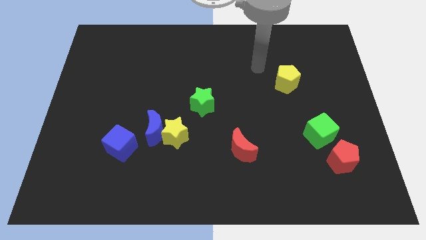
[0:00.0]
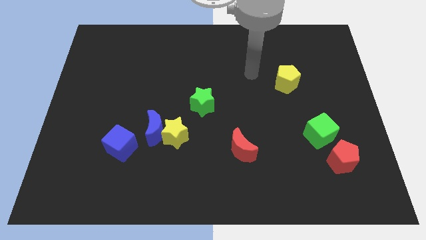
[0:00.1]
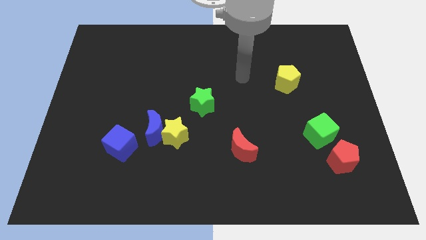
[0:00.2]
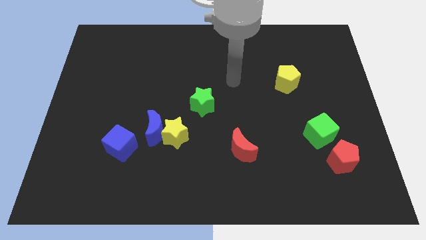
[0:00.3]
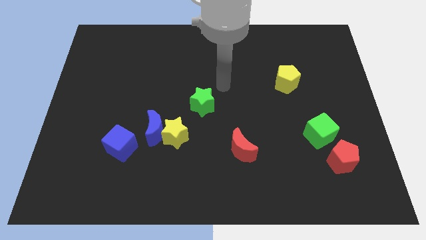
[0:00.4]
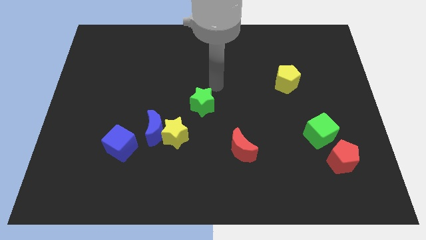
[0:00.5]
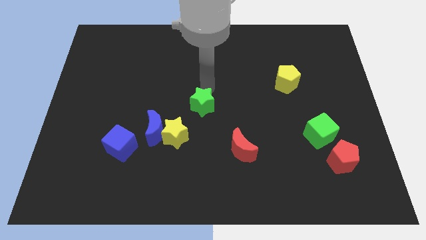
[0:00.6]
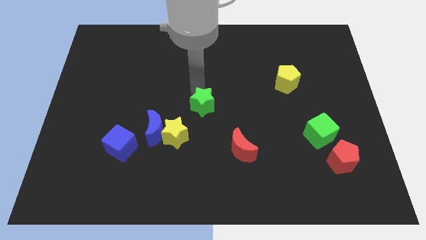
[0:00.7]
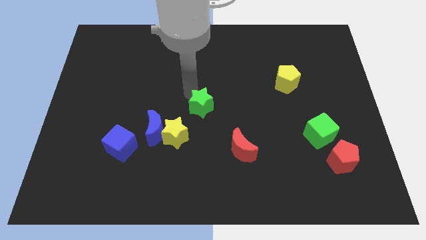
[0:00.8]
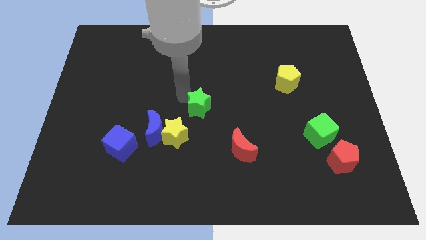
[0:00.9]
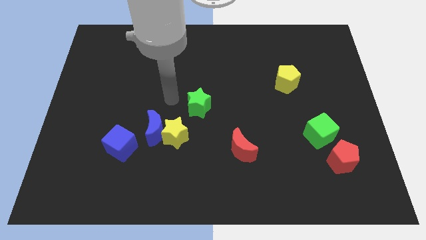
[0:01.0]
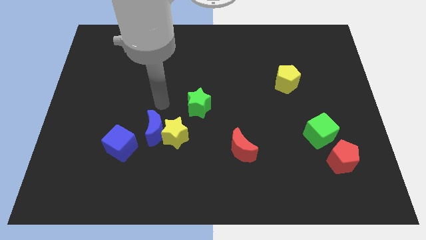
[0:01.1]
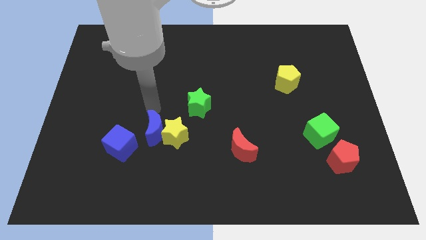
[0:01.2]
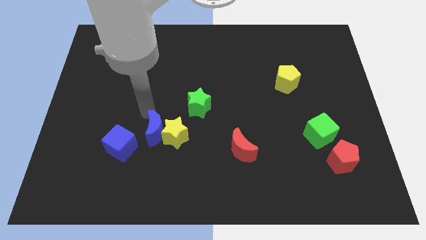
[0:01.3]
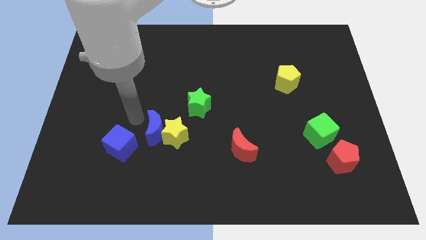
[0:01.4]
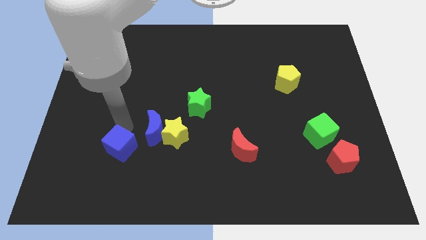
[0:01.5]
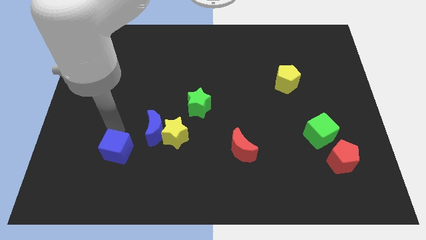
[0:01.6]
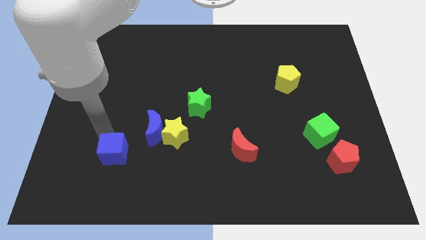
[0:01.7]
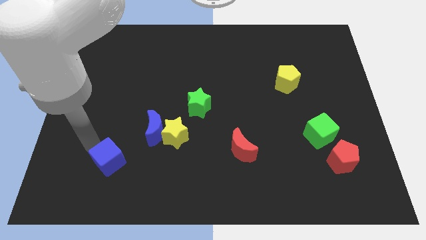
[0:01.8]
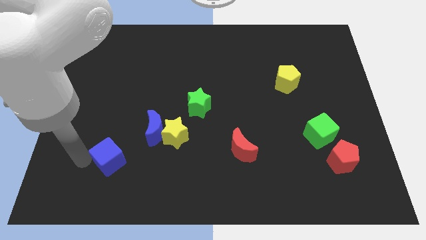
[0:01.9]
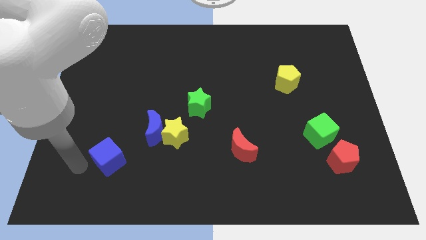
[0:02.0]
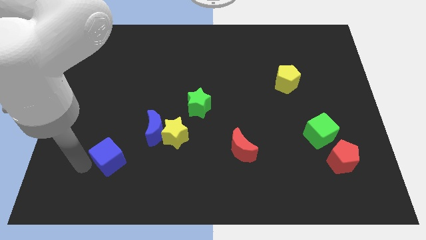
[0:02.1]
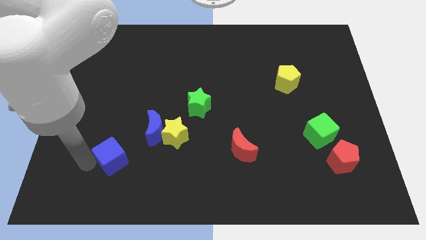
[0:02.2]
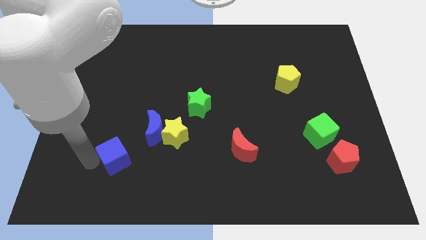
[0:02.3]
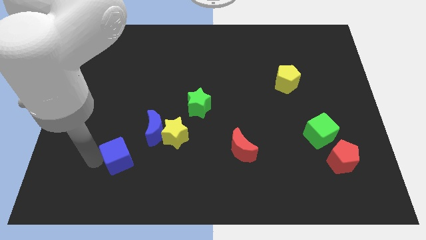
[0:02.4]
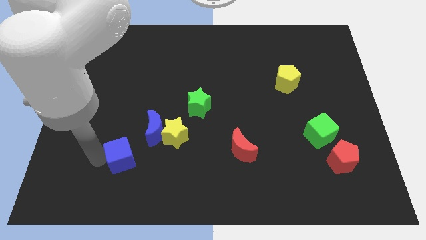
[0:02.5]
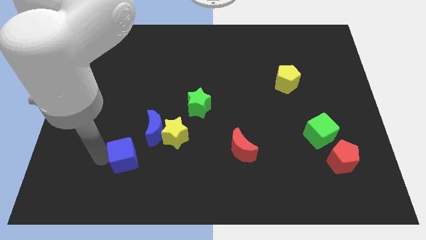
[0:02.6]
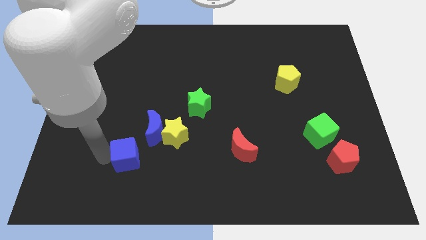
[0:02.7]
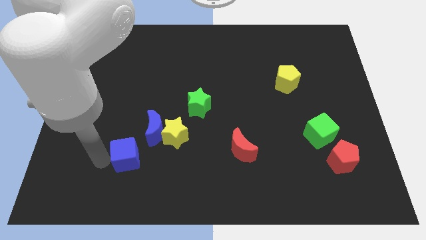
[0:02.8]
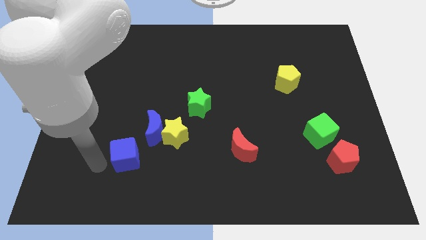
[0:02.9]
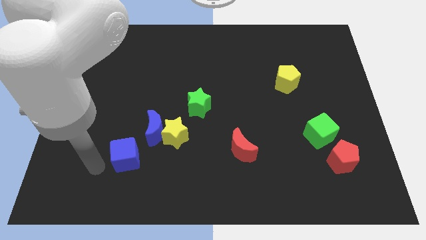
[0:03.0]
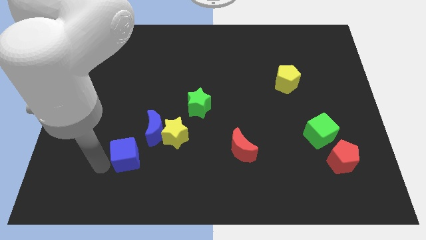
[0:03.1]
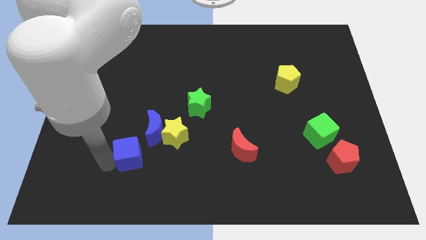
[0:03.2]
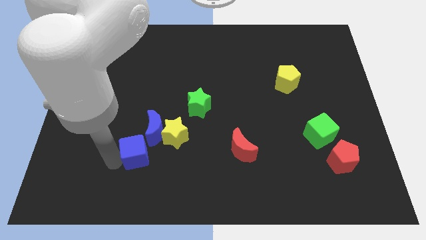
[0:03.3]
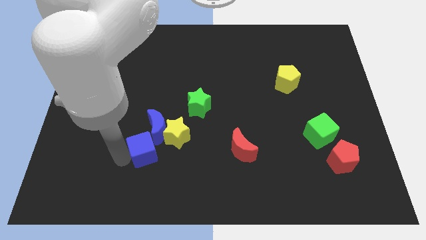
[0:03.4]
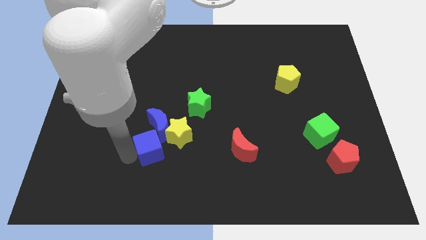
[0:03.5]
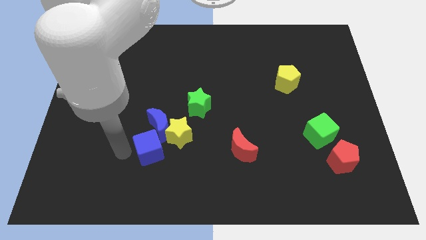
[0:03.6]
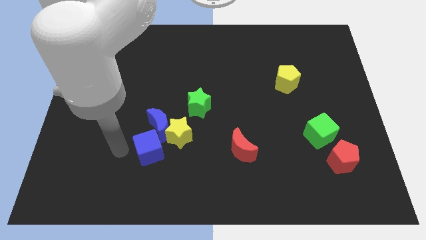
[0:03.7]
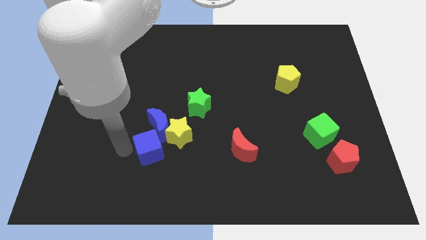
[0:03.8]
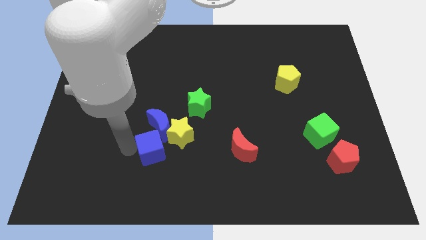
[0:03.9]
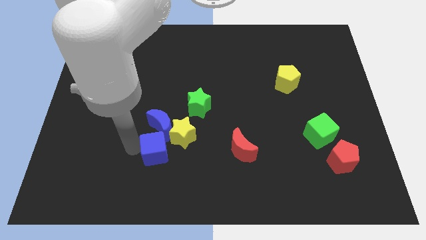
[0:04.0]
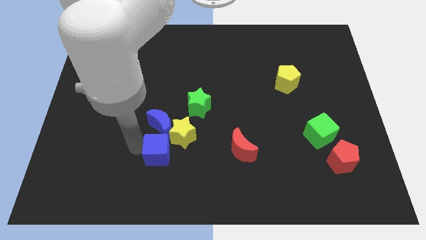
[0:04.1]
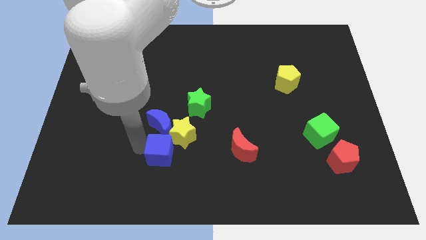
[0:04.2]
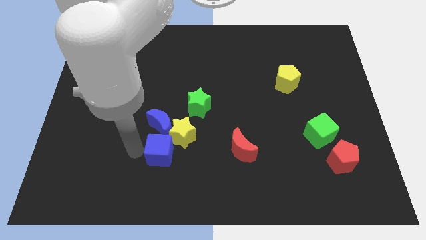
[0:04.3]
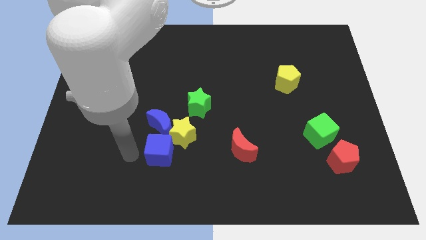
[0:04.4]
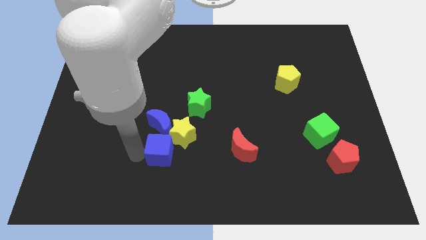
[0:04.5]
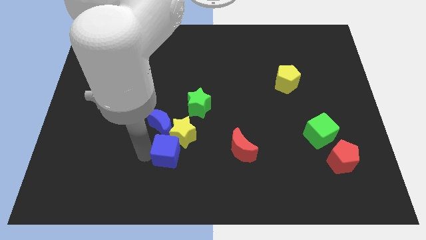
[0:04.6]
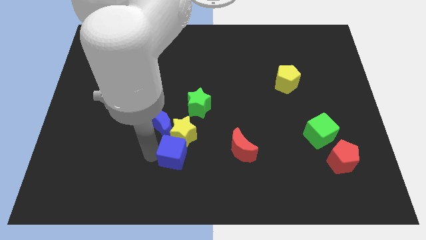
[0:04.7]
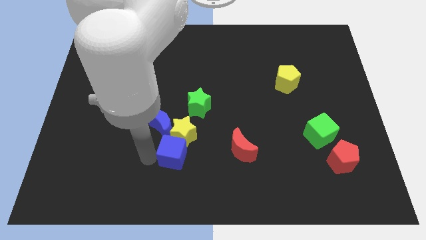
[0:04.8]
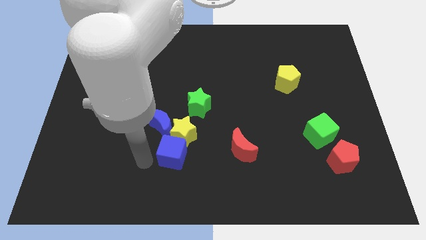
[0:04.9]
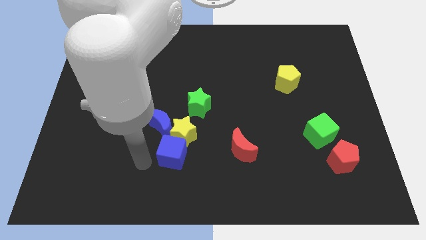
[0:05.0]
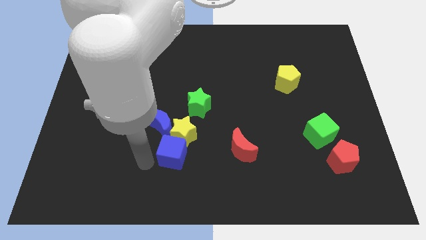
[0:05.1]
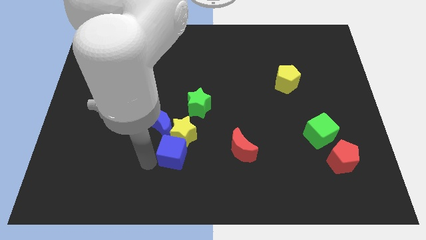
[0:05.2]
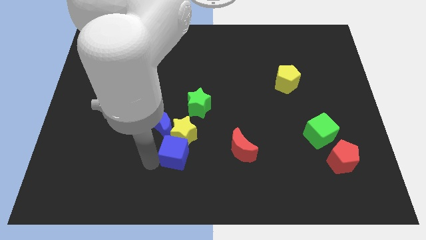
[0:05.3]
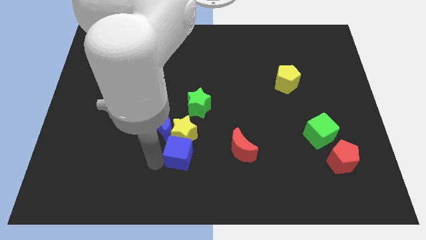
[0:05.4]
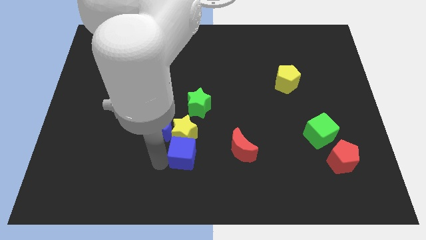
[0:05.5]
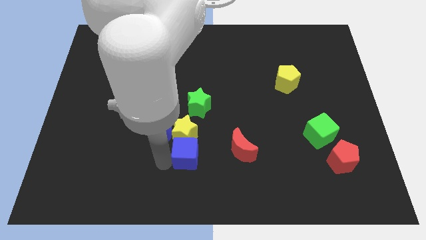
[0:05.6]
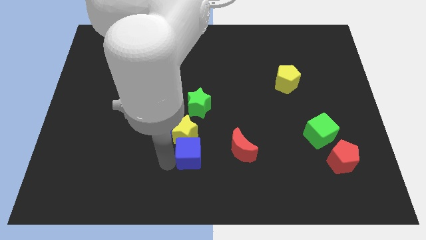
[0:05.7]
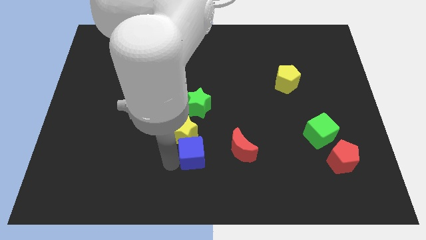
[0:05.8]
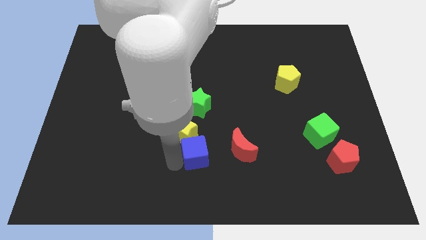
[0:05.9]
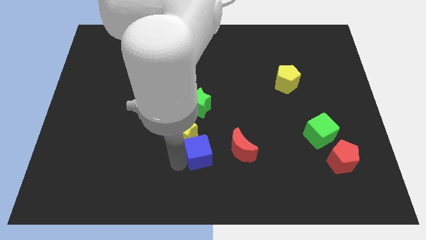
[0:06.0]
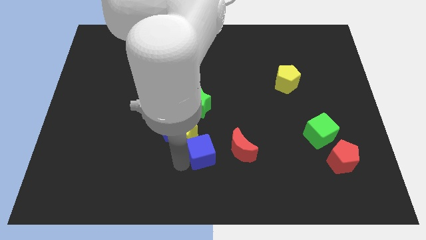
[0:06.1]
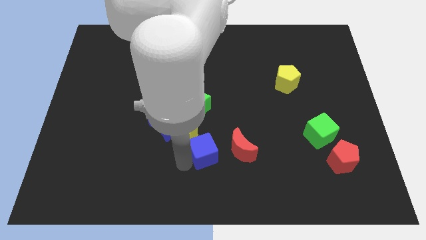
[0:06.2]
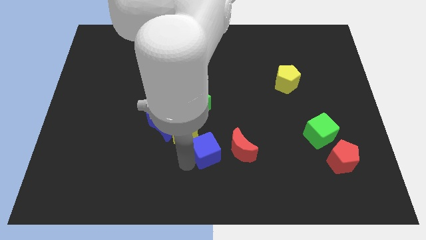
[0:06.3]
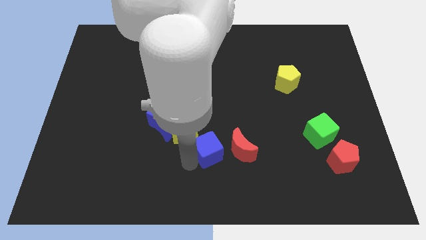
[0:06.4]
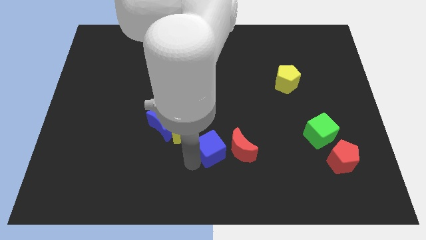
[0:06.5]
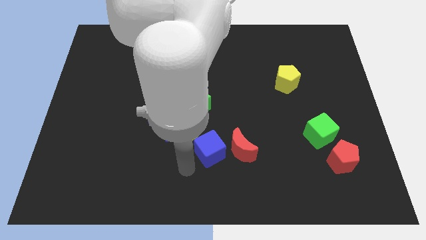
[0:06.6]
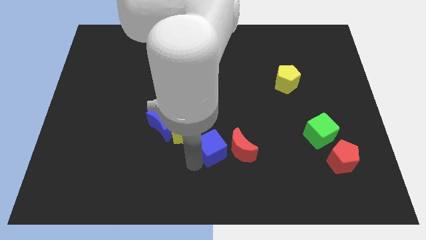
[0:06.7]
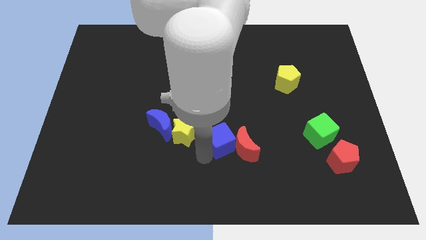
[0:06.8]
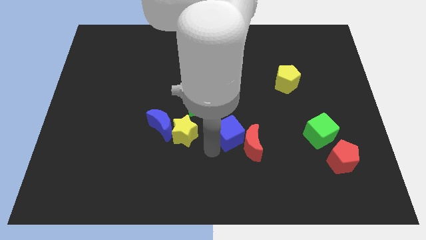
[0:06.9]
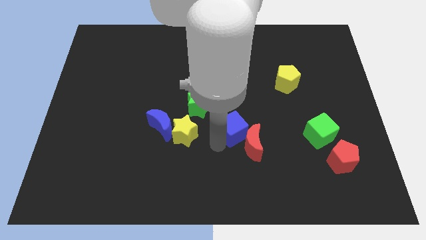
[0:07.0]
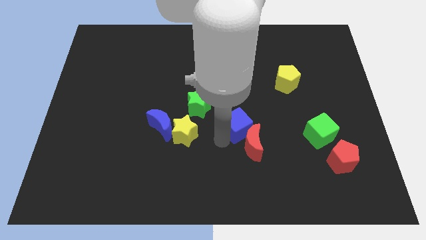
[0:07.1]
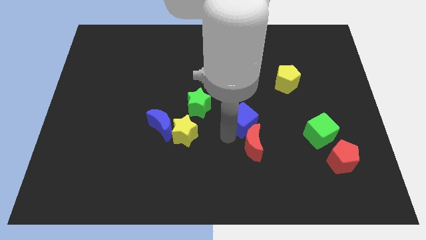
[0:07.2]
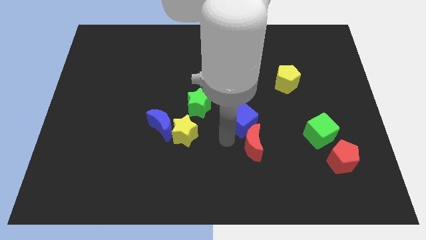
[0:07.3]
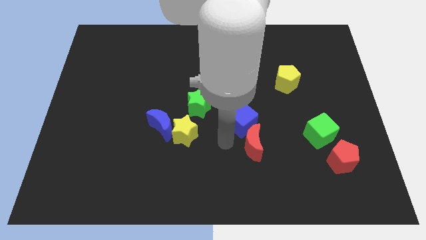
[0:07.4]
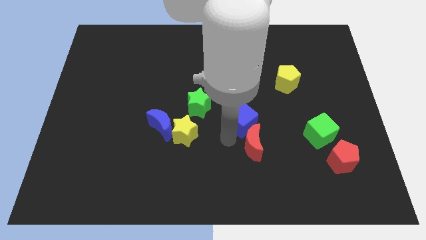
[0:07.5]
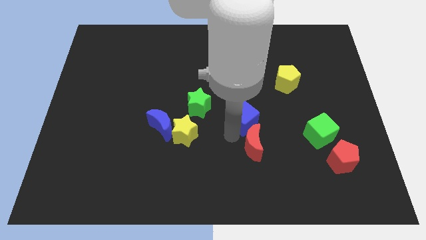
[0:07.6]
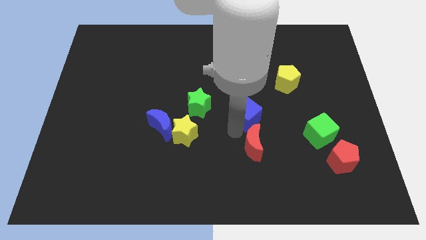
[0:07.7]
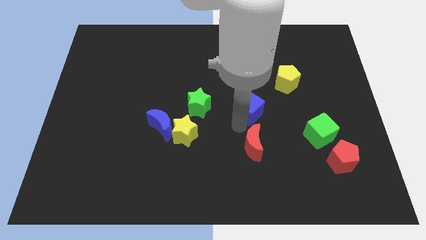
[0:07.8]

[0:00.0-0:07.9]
slide the blue cube diagonally down and to the left of the yellow pentagon
